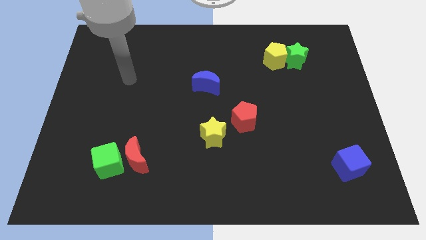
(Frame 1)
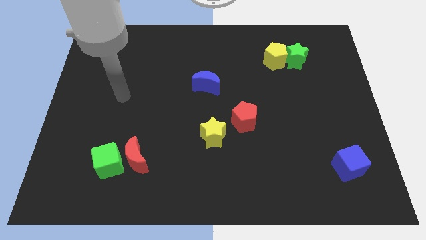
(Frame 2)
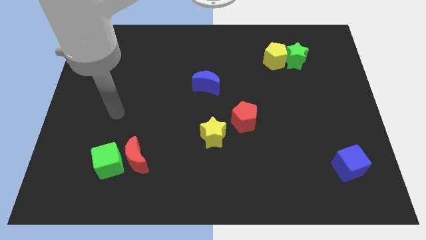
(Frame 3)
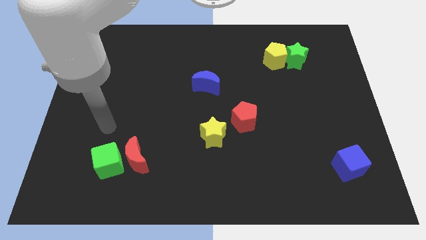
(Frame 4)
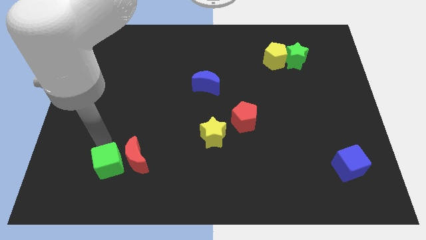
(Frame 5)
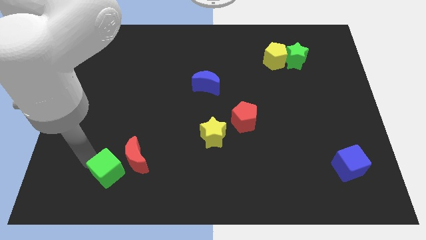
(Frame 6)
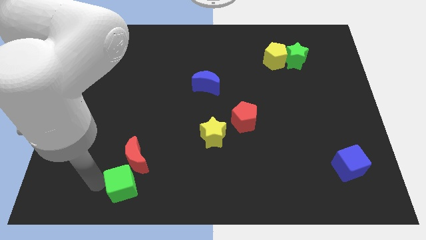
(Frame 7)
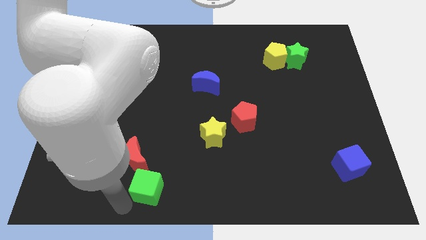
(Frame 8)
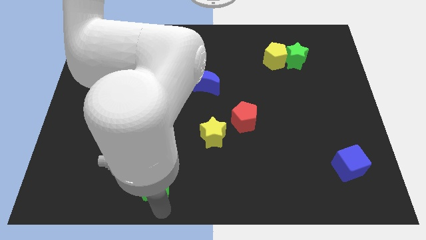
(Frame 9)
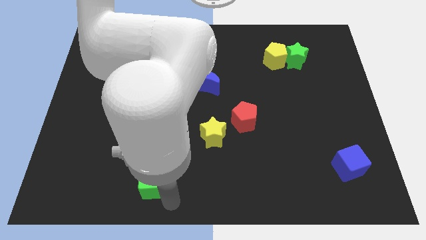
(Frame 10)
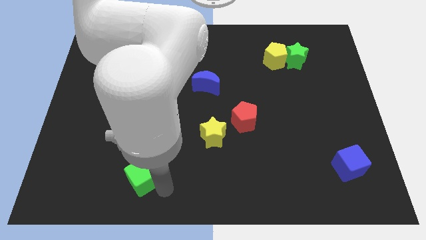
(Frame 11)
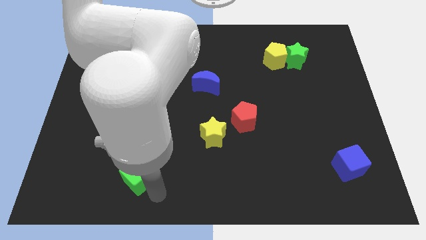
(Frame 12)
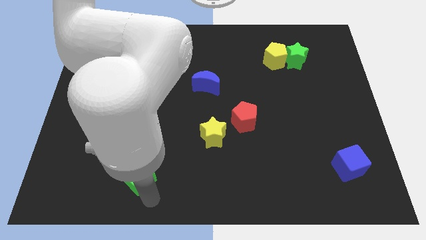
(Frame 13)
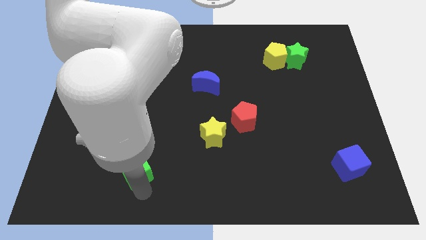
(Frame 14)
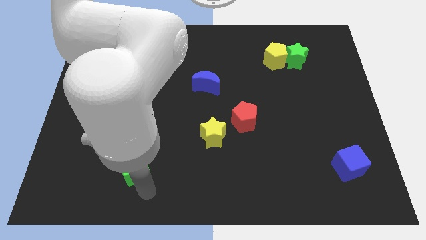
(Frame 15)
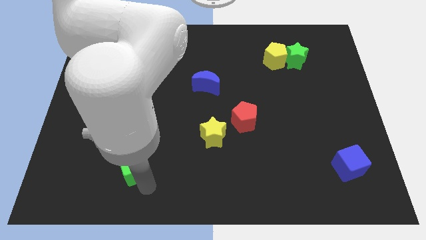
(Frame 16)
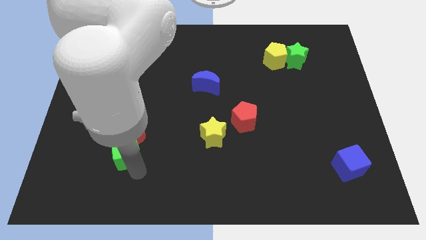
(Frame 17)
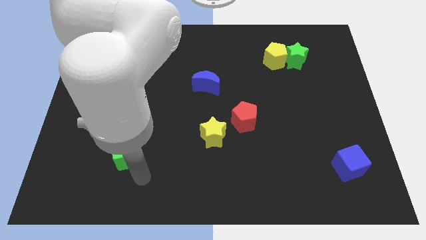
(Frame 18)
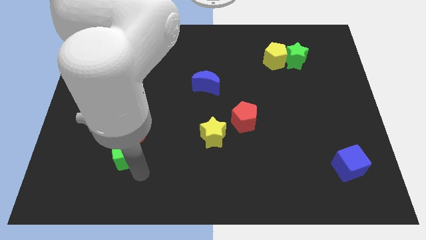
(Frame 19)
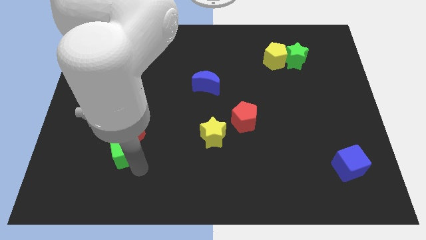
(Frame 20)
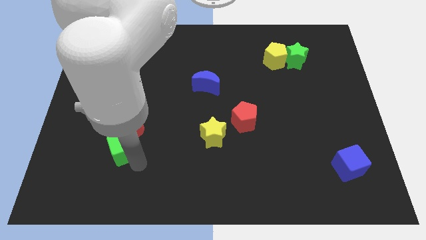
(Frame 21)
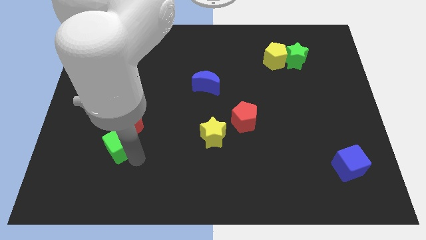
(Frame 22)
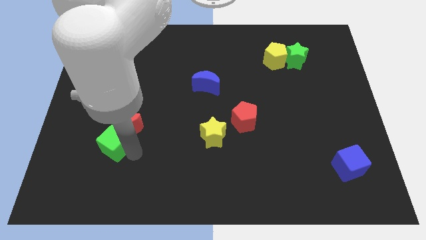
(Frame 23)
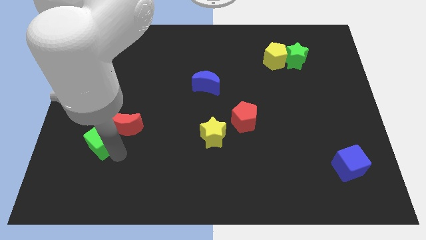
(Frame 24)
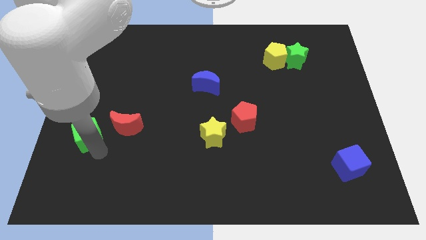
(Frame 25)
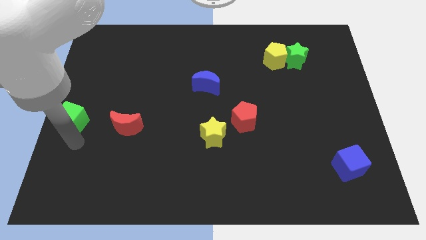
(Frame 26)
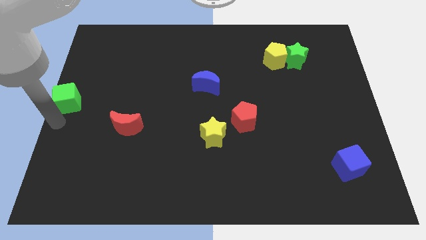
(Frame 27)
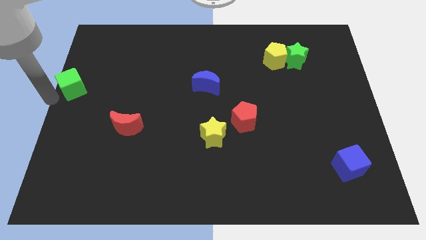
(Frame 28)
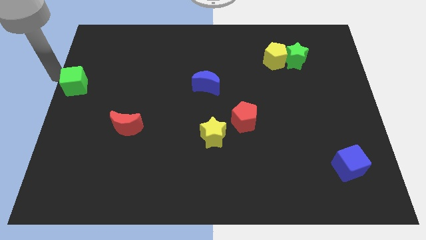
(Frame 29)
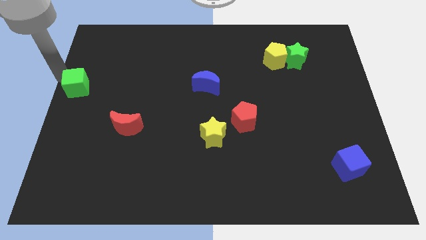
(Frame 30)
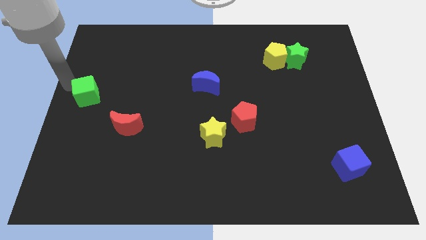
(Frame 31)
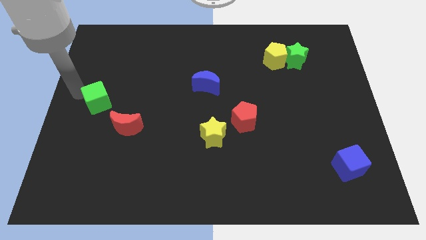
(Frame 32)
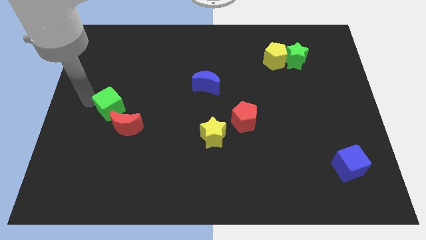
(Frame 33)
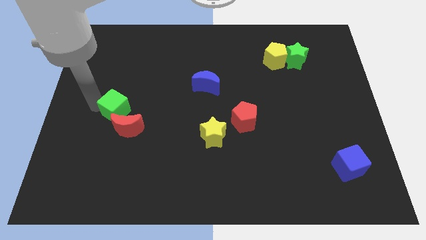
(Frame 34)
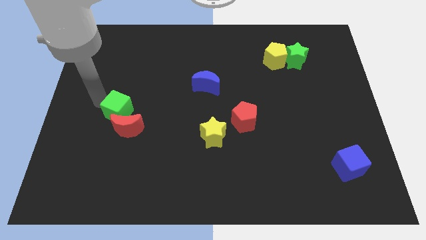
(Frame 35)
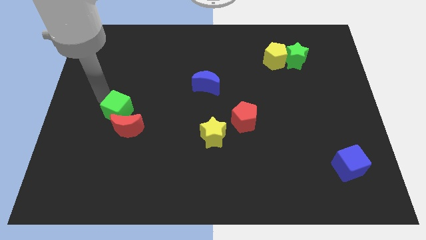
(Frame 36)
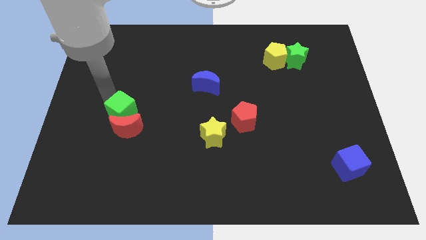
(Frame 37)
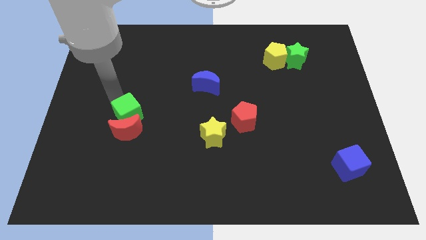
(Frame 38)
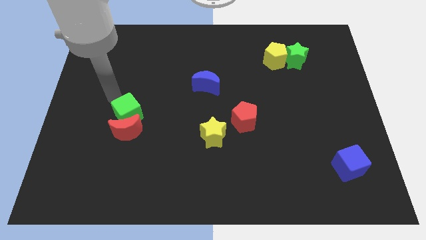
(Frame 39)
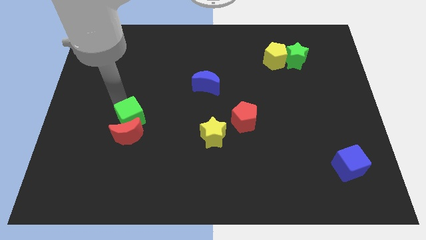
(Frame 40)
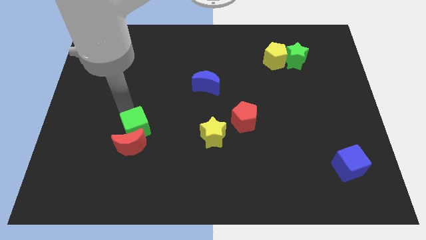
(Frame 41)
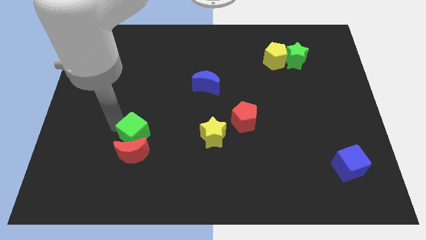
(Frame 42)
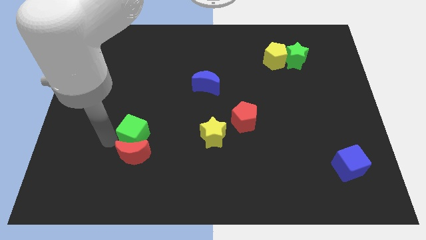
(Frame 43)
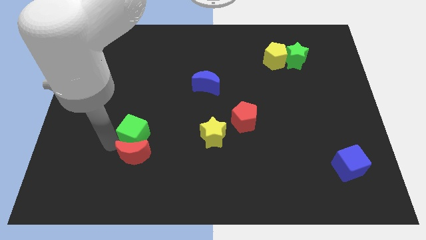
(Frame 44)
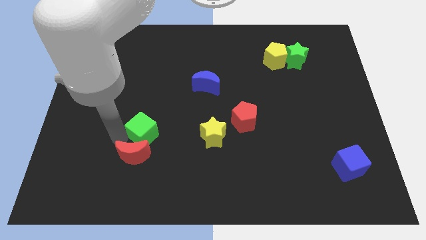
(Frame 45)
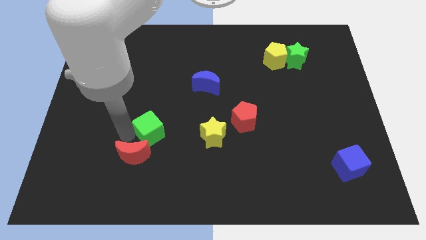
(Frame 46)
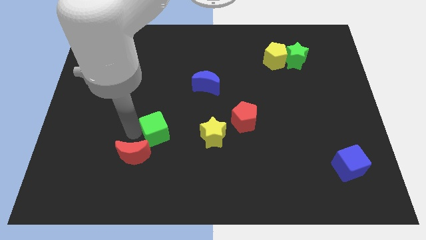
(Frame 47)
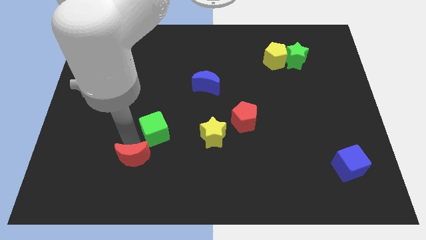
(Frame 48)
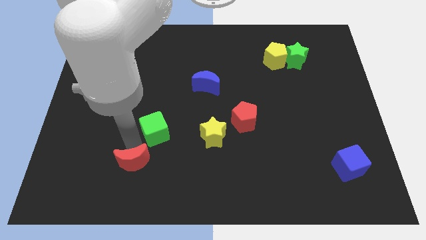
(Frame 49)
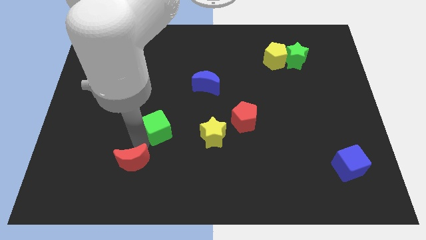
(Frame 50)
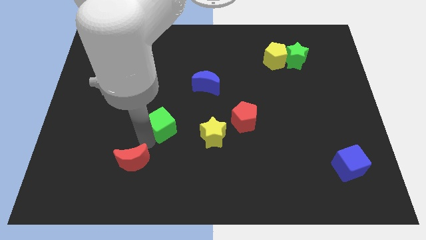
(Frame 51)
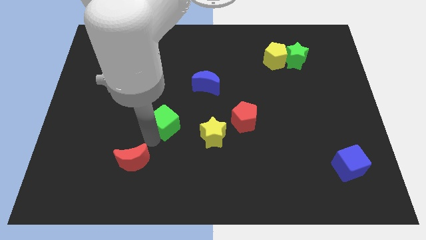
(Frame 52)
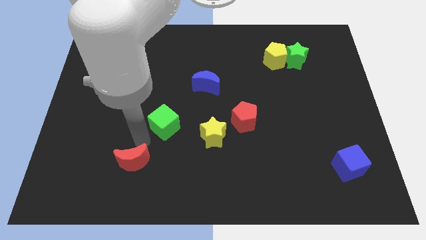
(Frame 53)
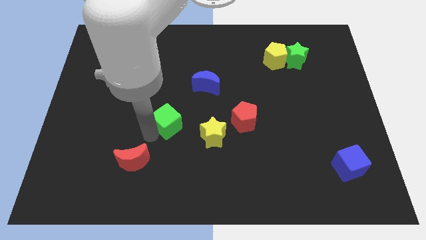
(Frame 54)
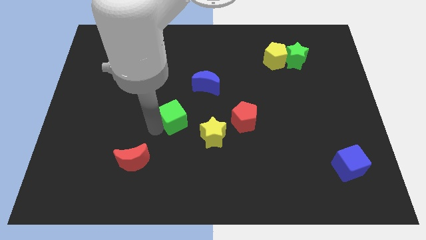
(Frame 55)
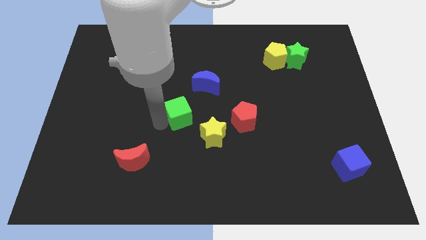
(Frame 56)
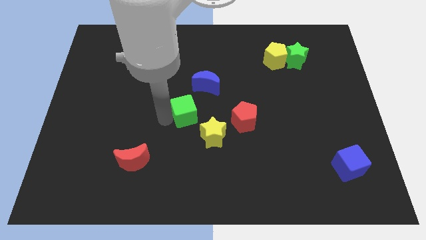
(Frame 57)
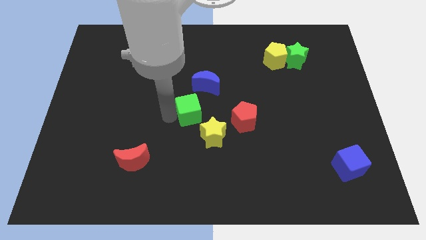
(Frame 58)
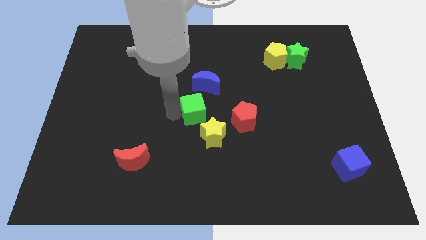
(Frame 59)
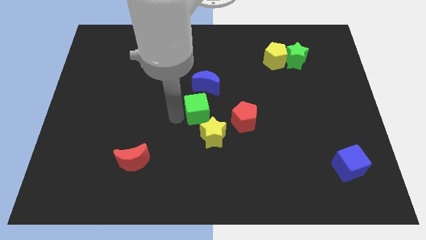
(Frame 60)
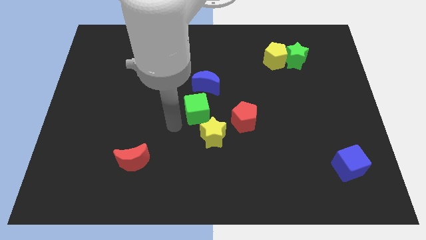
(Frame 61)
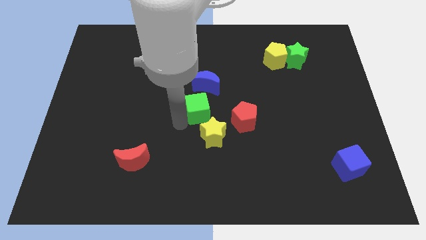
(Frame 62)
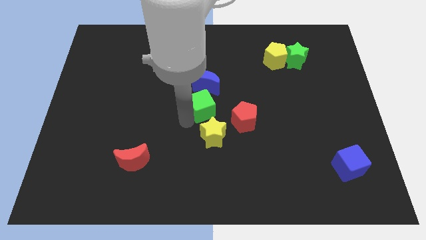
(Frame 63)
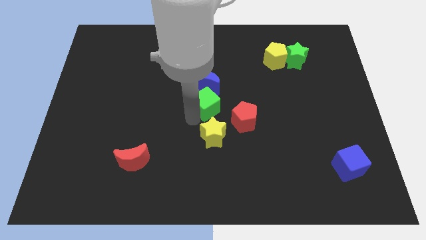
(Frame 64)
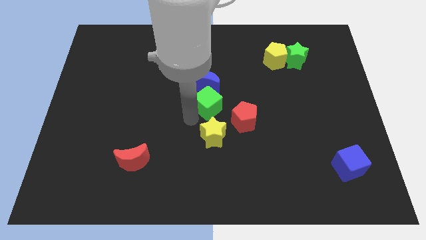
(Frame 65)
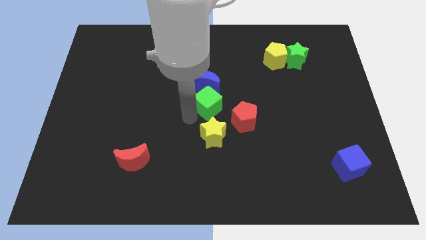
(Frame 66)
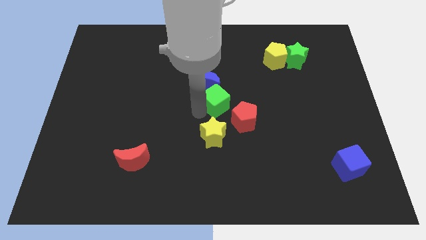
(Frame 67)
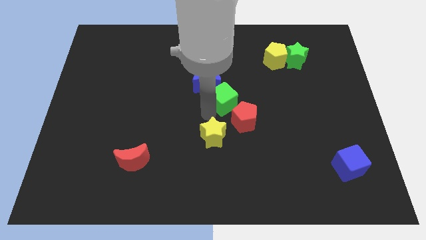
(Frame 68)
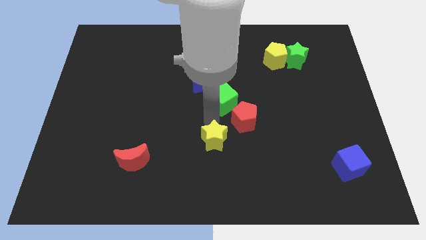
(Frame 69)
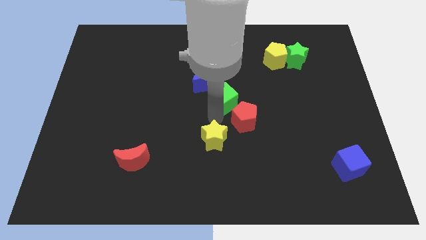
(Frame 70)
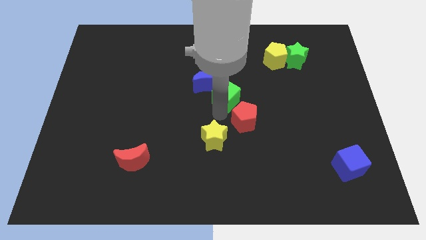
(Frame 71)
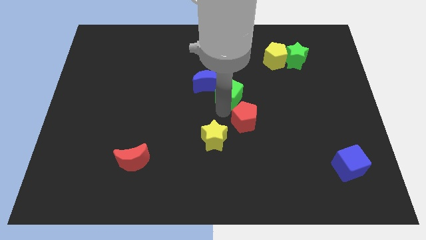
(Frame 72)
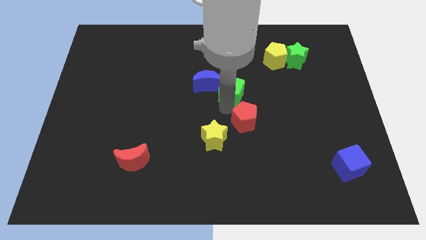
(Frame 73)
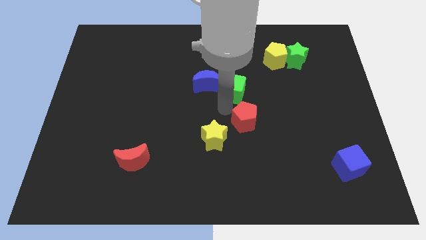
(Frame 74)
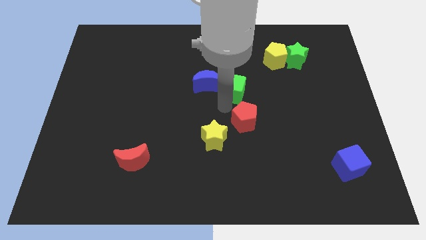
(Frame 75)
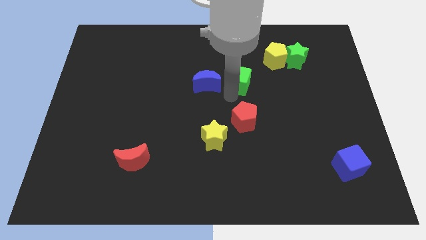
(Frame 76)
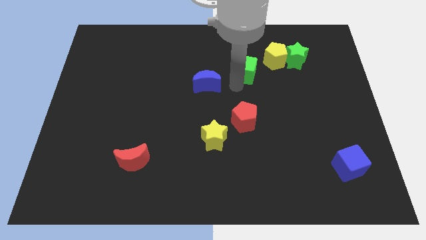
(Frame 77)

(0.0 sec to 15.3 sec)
move the green cube just left of the green star
